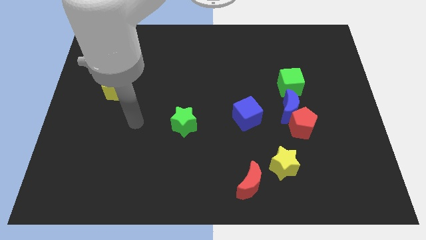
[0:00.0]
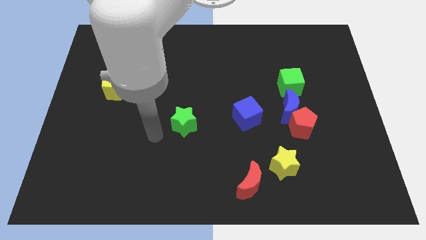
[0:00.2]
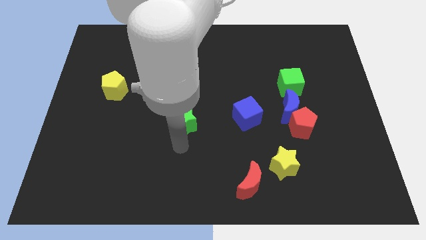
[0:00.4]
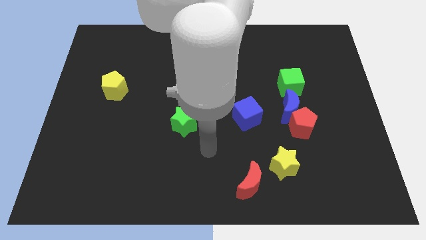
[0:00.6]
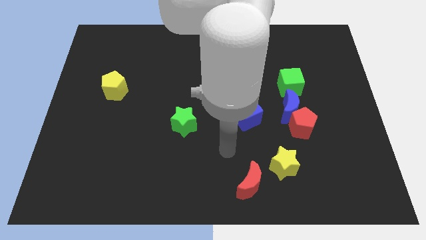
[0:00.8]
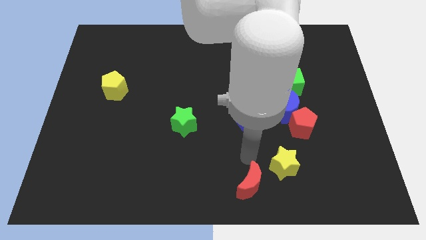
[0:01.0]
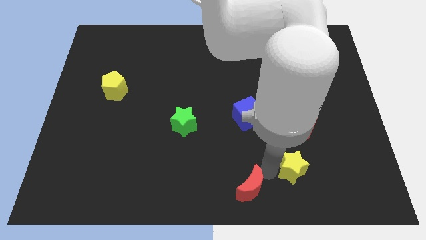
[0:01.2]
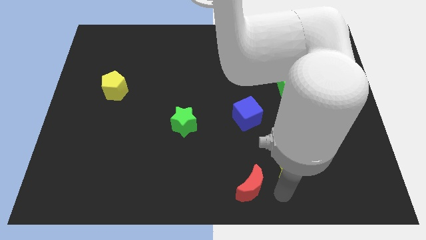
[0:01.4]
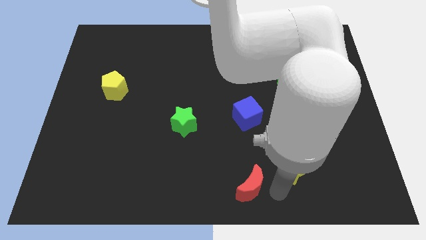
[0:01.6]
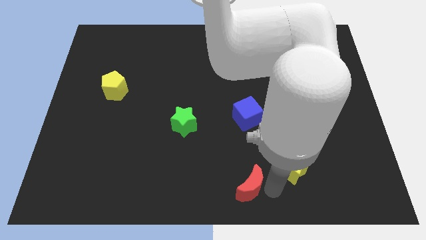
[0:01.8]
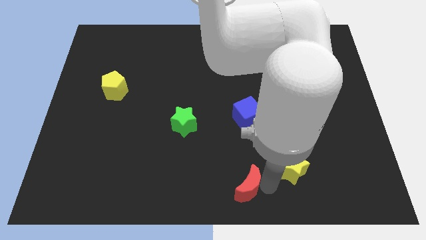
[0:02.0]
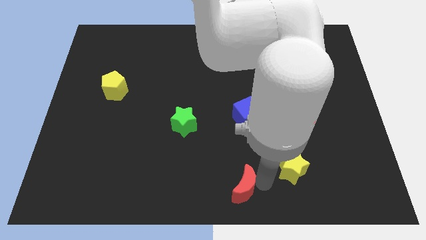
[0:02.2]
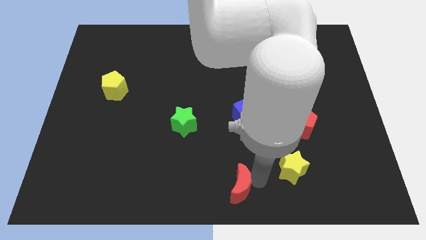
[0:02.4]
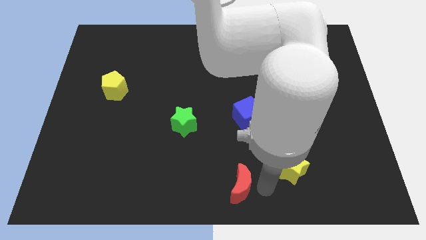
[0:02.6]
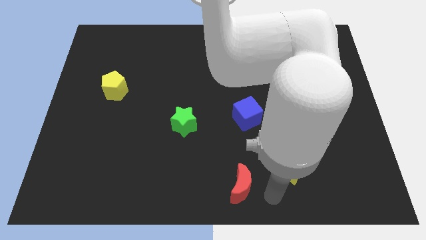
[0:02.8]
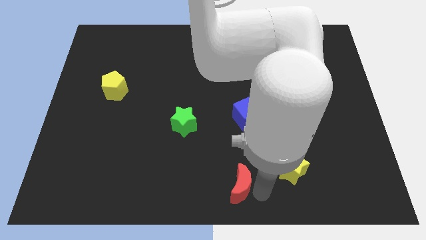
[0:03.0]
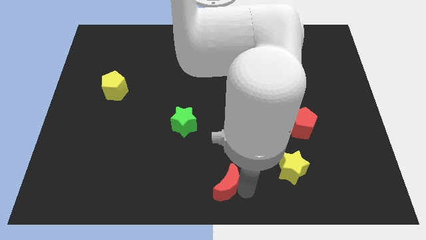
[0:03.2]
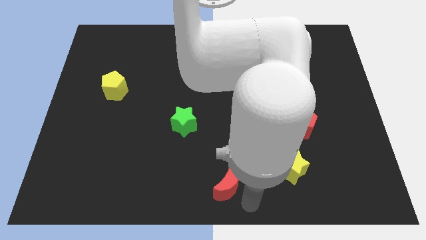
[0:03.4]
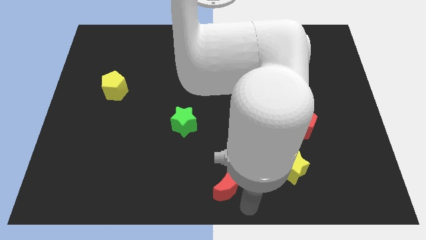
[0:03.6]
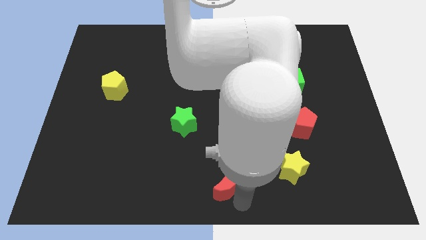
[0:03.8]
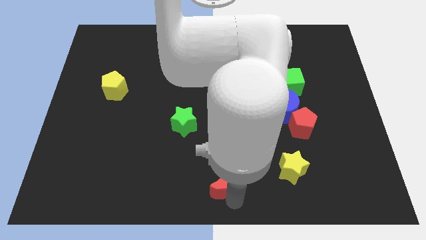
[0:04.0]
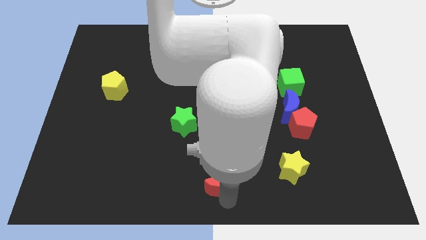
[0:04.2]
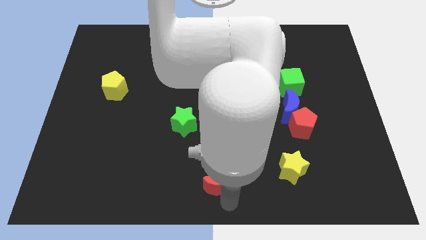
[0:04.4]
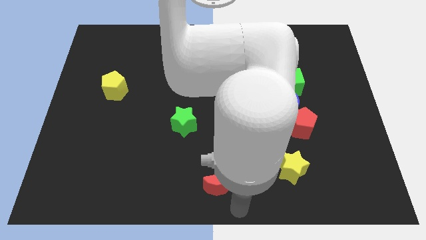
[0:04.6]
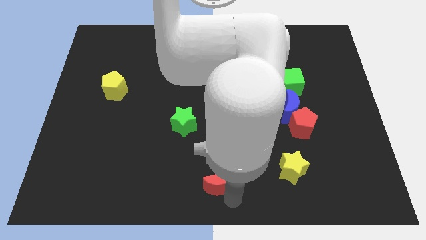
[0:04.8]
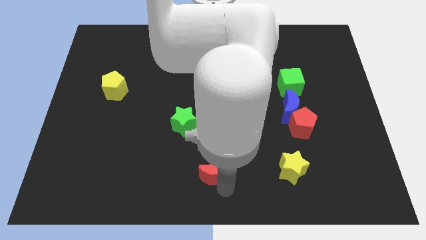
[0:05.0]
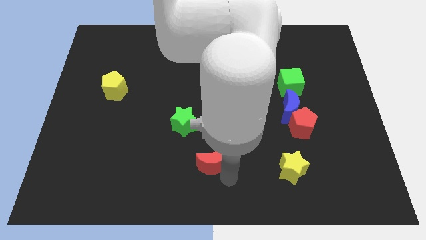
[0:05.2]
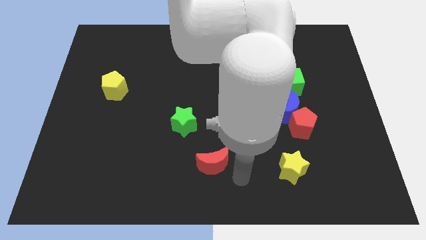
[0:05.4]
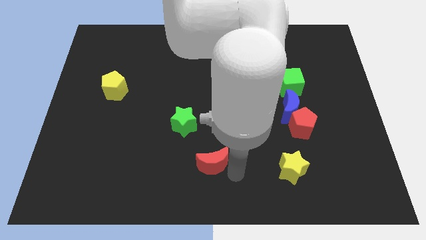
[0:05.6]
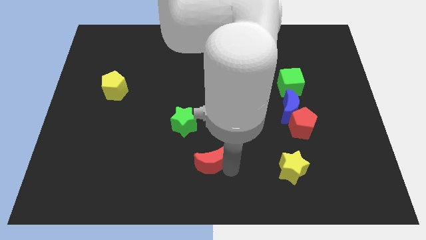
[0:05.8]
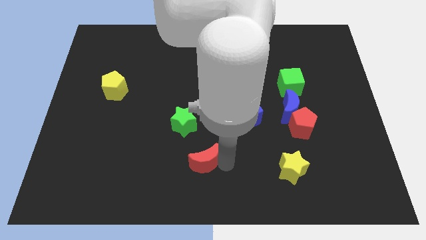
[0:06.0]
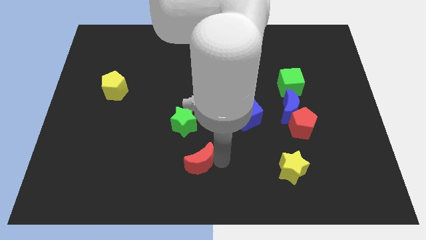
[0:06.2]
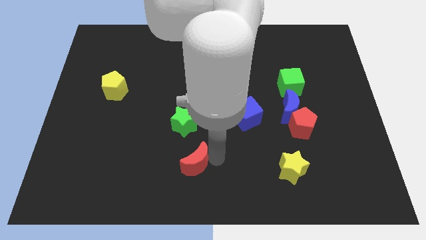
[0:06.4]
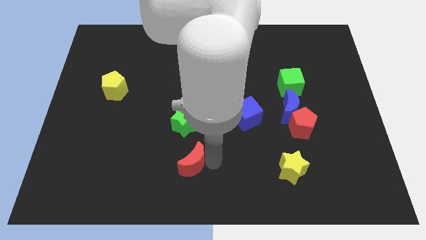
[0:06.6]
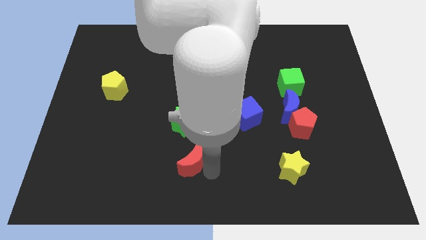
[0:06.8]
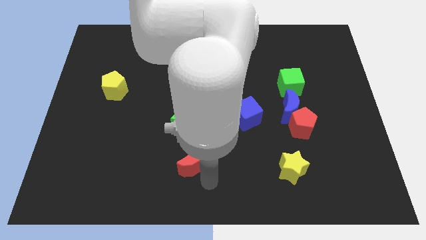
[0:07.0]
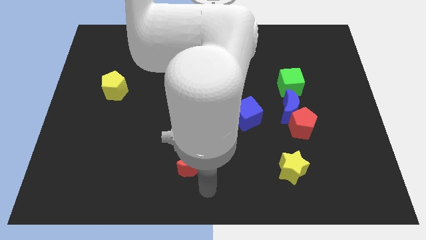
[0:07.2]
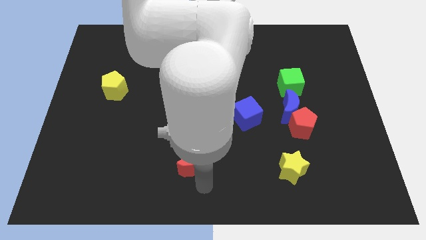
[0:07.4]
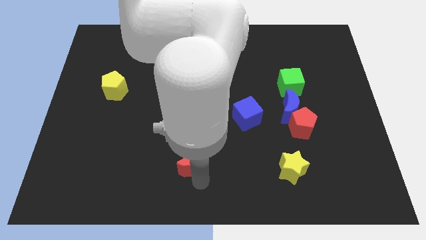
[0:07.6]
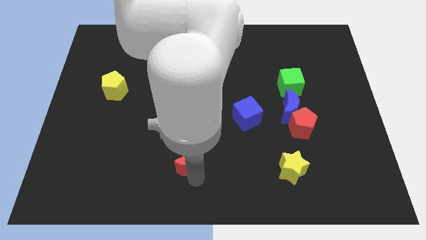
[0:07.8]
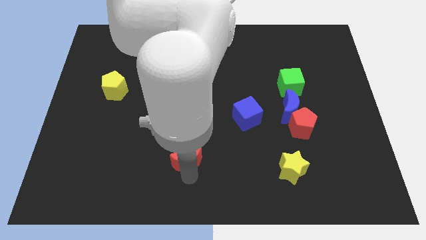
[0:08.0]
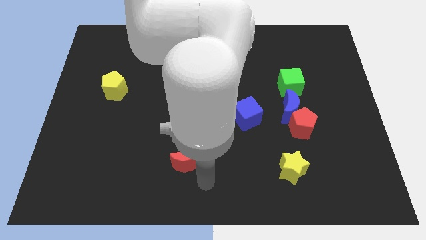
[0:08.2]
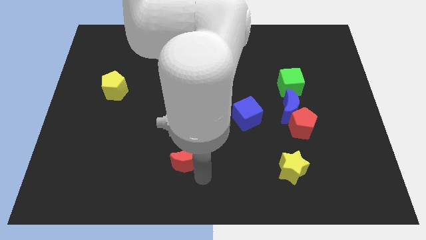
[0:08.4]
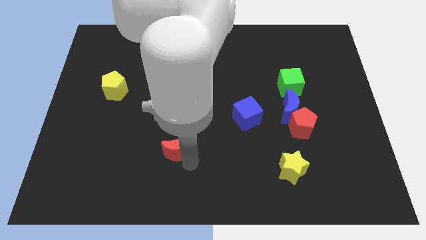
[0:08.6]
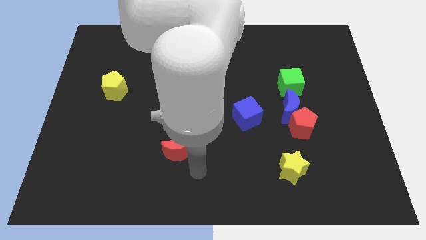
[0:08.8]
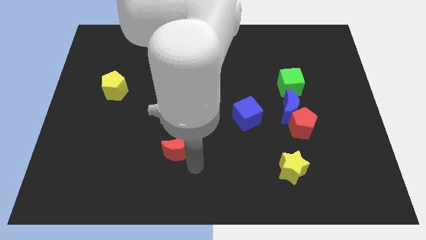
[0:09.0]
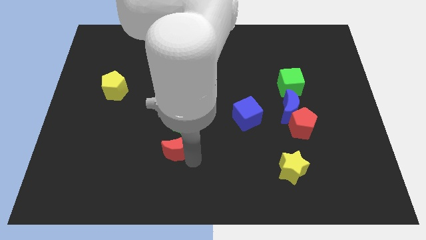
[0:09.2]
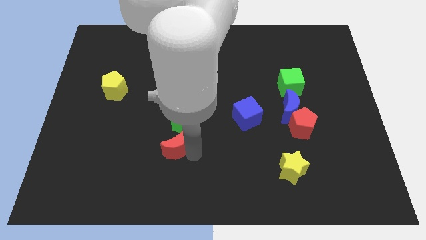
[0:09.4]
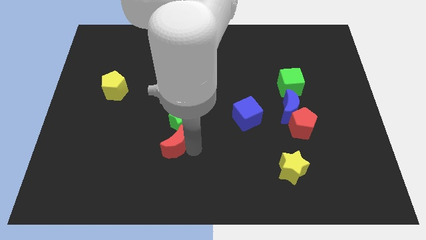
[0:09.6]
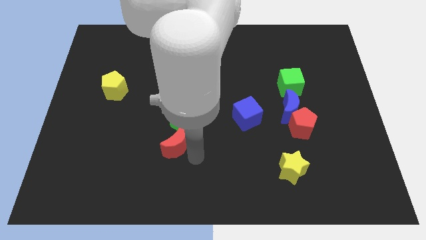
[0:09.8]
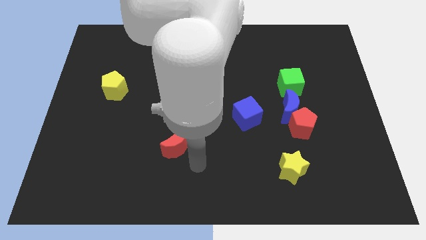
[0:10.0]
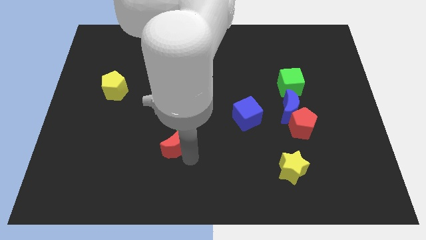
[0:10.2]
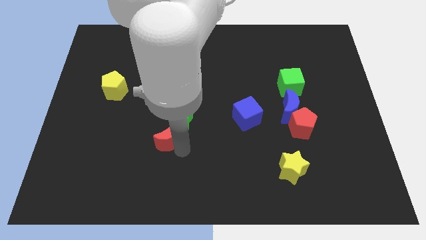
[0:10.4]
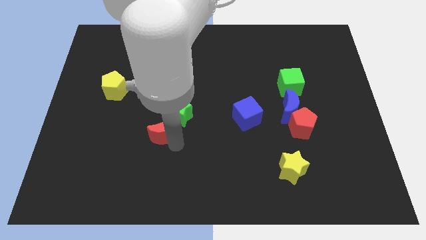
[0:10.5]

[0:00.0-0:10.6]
push the red moon upwards and left

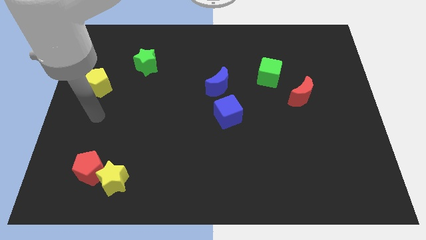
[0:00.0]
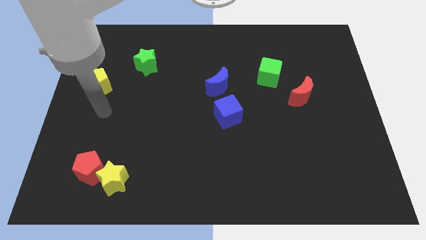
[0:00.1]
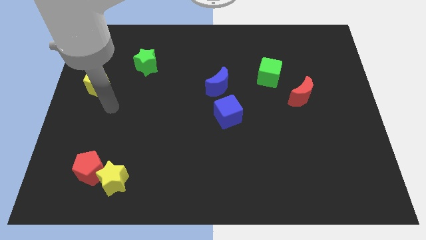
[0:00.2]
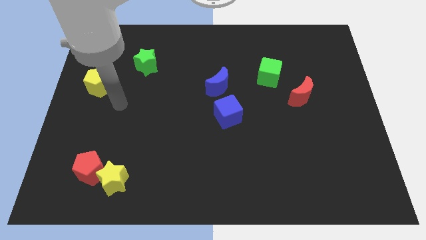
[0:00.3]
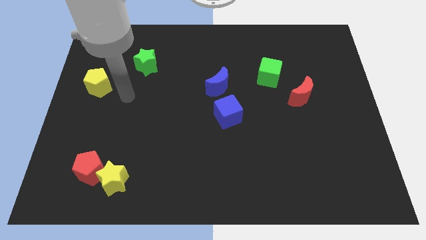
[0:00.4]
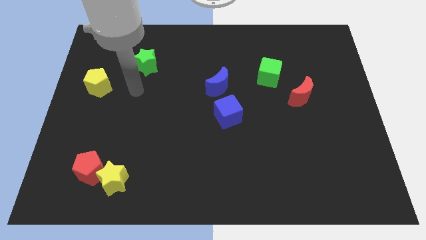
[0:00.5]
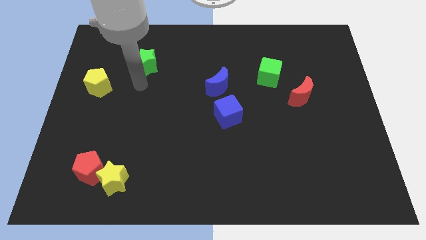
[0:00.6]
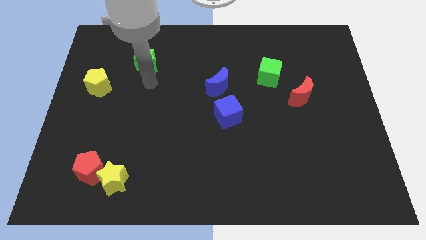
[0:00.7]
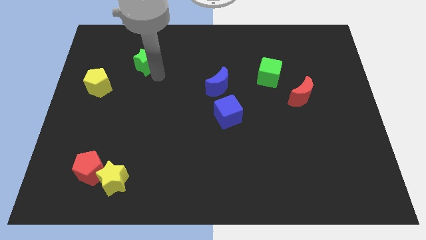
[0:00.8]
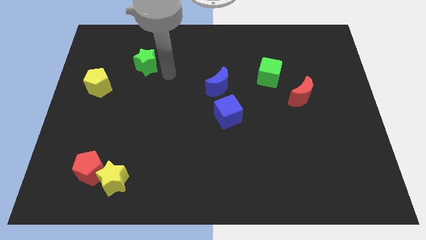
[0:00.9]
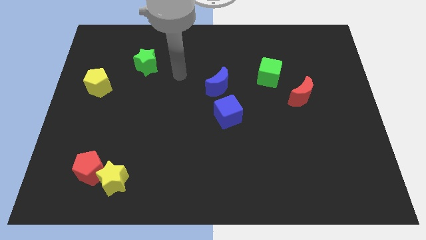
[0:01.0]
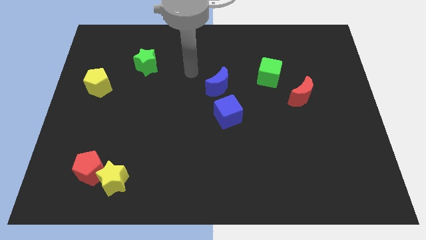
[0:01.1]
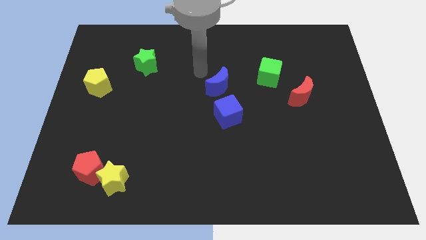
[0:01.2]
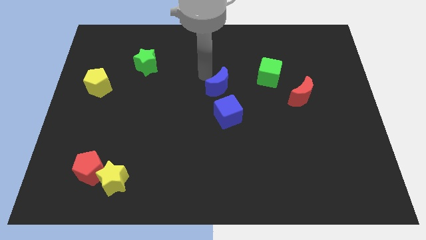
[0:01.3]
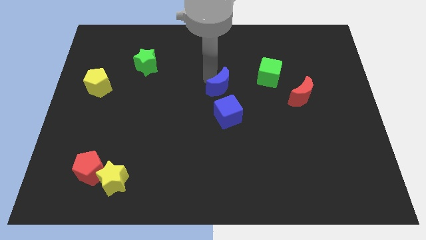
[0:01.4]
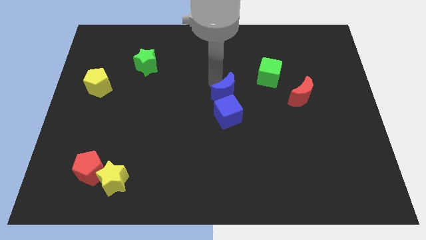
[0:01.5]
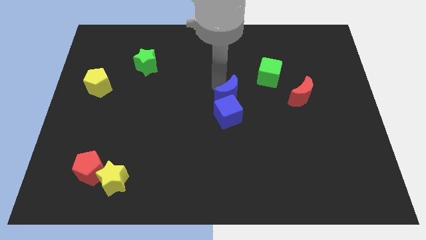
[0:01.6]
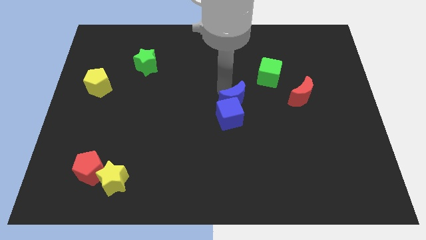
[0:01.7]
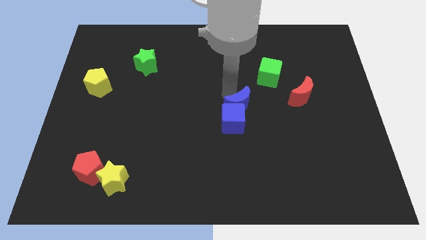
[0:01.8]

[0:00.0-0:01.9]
slightly push the blue moon down and right diagonally

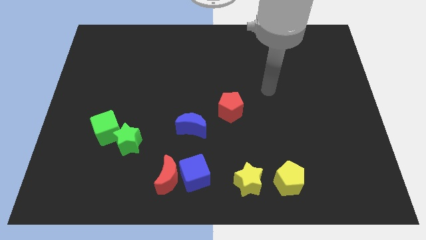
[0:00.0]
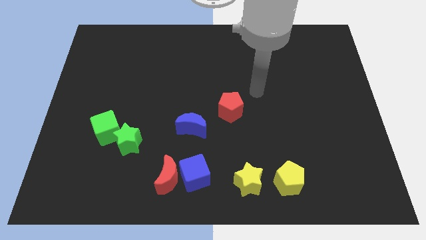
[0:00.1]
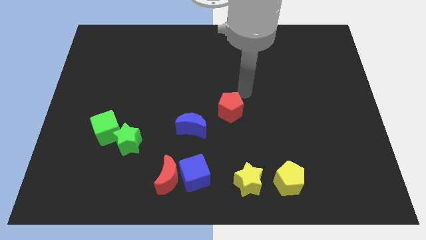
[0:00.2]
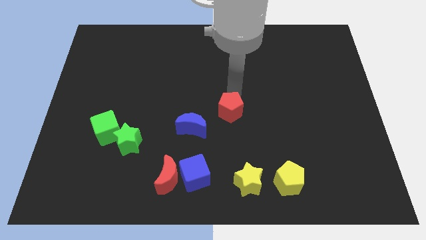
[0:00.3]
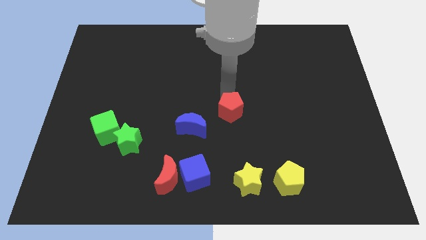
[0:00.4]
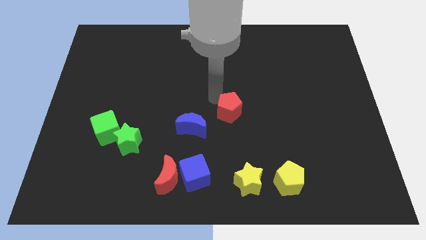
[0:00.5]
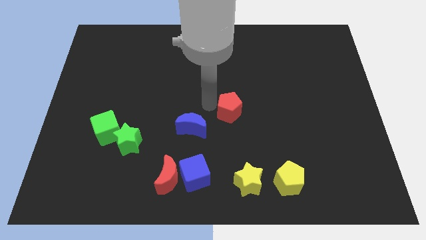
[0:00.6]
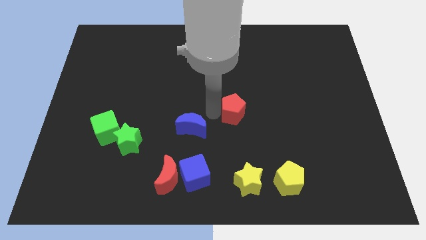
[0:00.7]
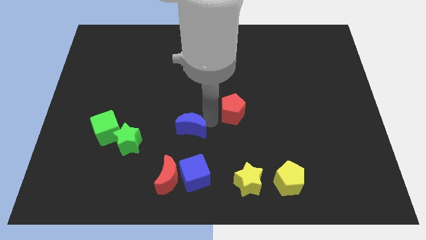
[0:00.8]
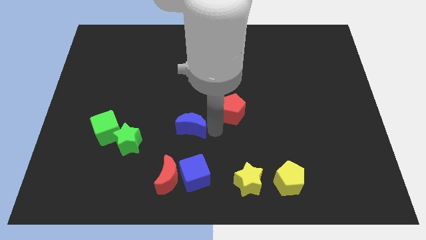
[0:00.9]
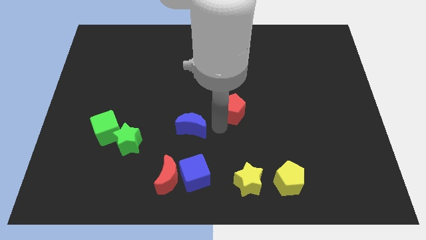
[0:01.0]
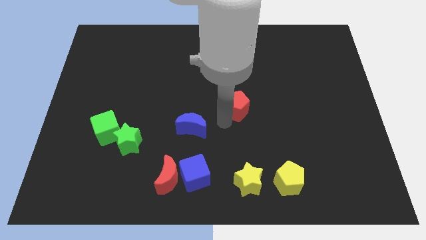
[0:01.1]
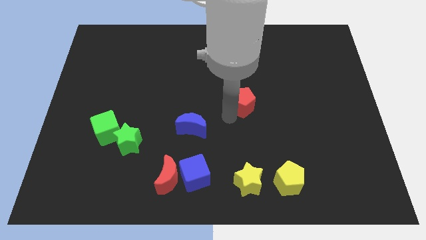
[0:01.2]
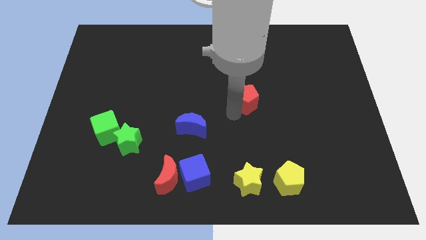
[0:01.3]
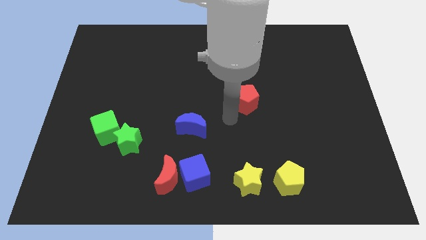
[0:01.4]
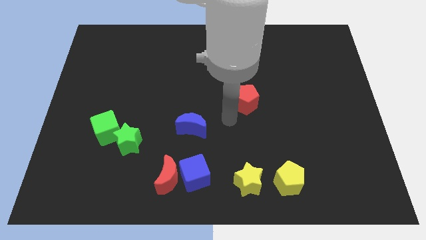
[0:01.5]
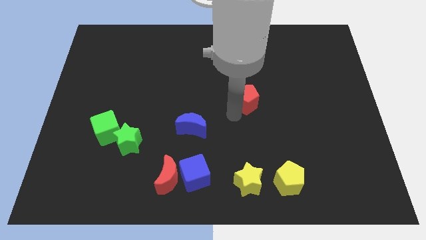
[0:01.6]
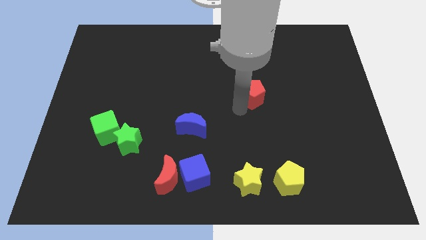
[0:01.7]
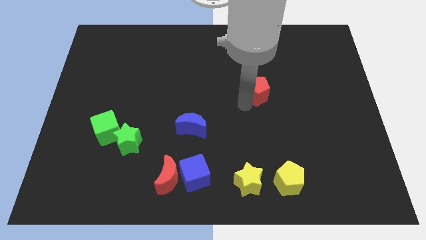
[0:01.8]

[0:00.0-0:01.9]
move the red pentagon diagonally up and right a little
